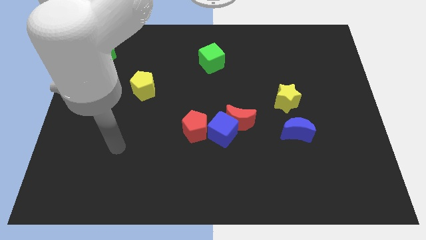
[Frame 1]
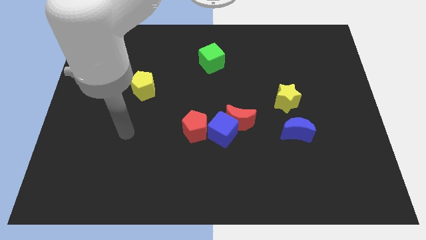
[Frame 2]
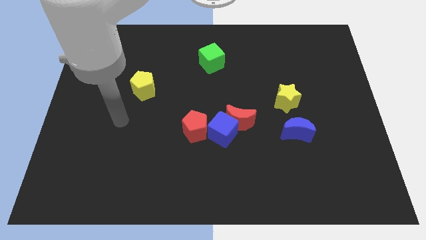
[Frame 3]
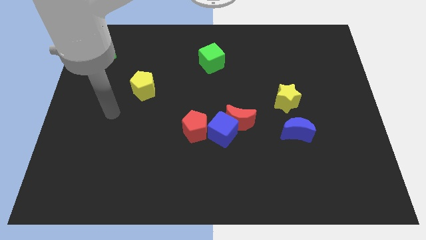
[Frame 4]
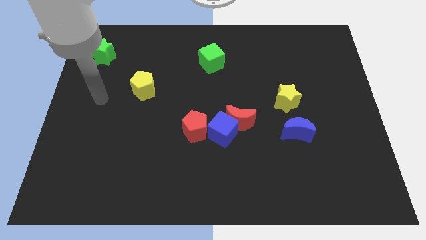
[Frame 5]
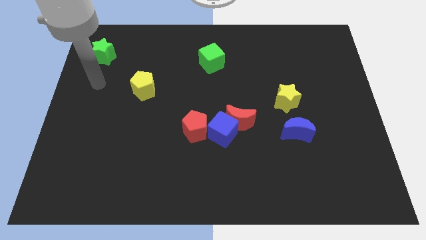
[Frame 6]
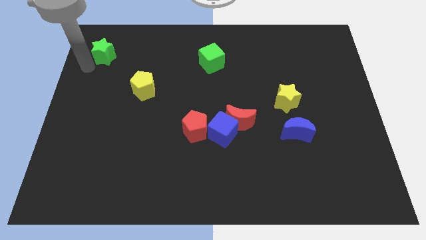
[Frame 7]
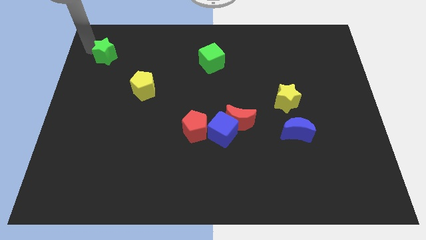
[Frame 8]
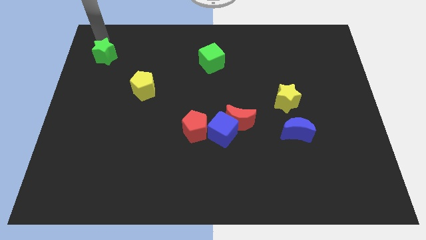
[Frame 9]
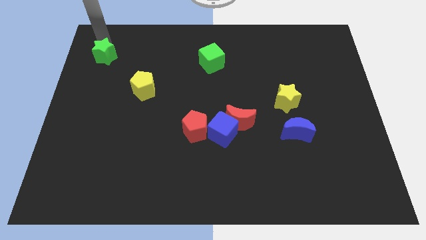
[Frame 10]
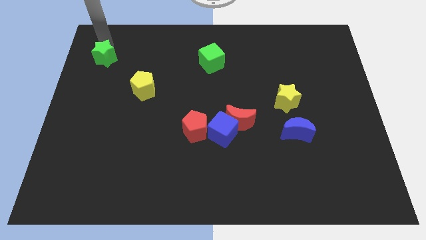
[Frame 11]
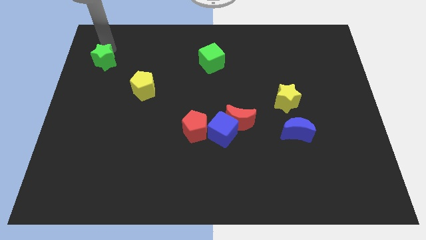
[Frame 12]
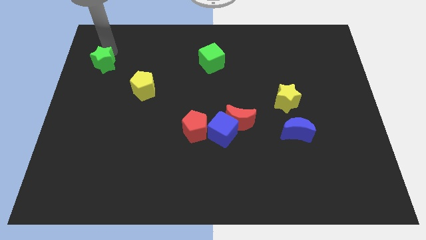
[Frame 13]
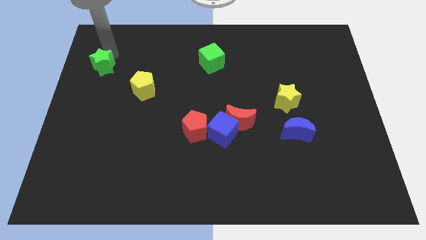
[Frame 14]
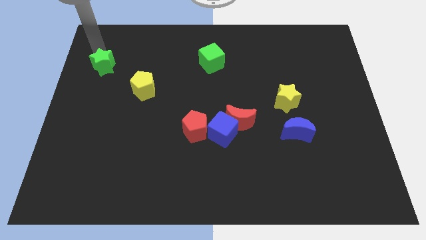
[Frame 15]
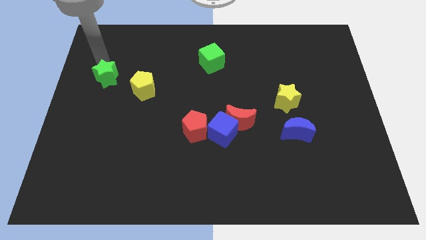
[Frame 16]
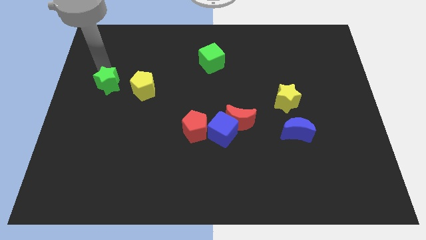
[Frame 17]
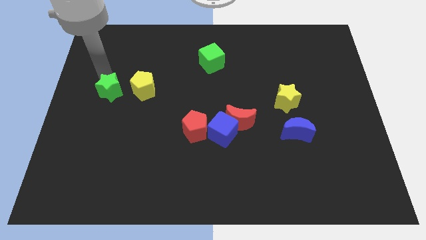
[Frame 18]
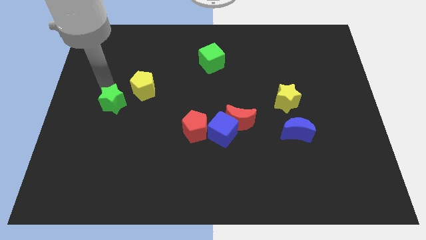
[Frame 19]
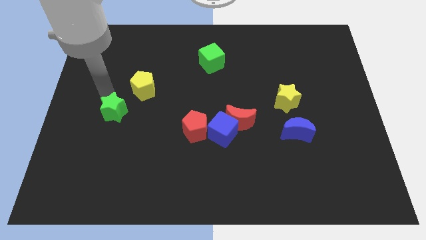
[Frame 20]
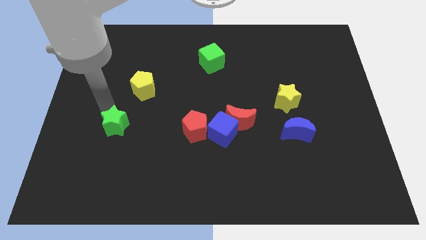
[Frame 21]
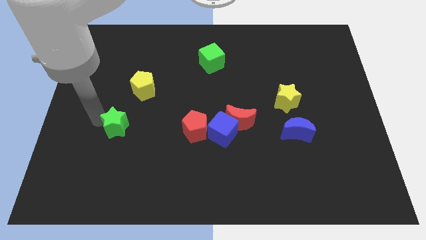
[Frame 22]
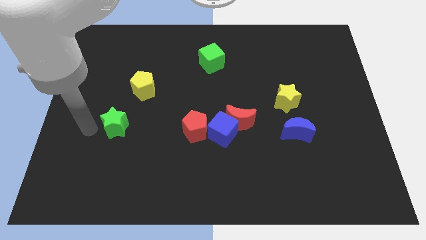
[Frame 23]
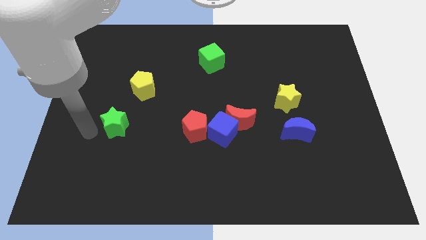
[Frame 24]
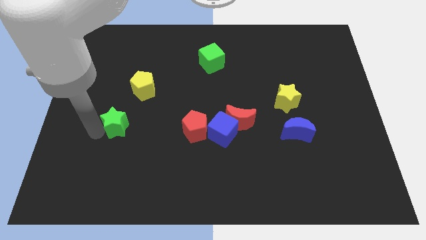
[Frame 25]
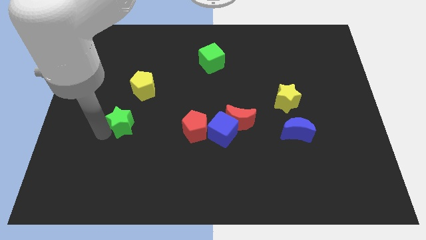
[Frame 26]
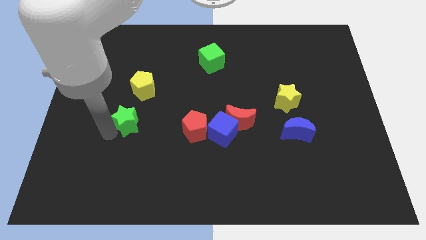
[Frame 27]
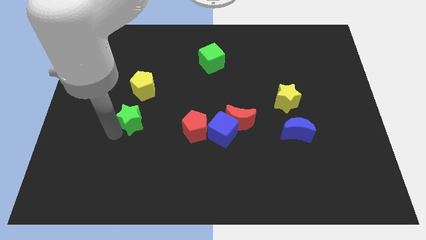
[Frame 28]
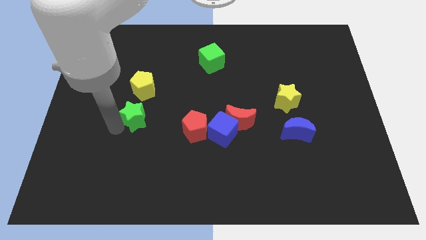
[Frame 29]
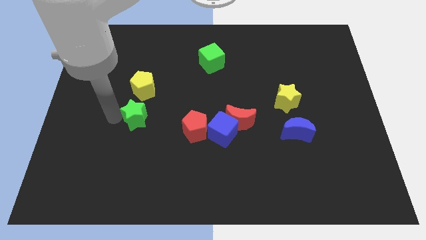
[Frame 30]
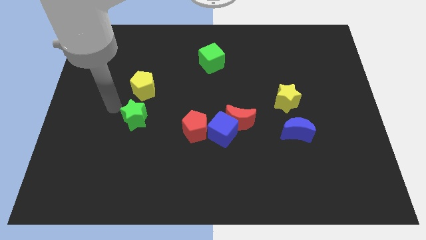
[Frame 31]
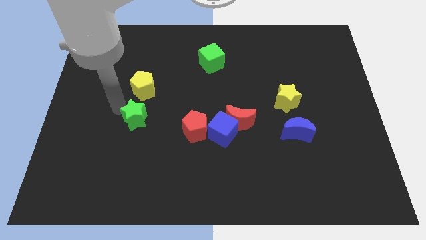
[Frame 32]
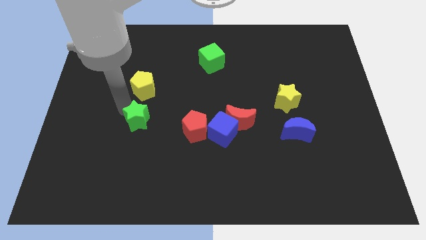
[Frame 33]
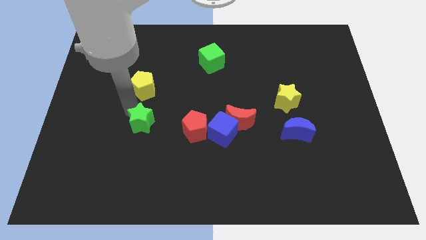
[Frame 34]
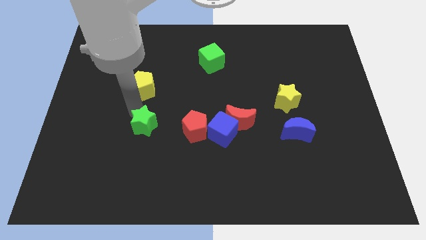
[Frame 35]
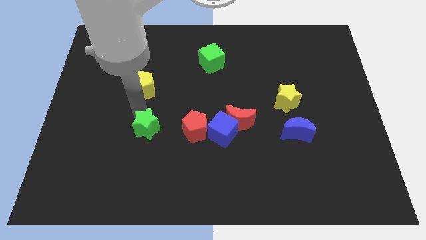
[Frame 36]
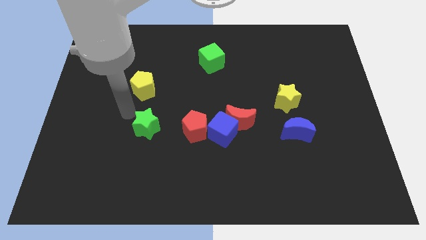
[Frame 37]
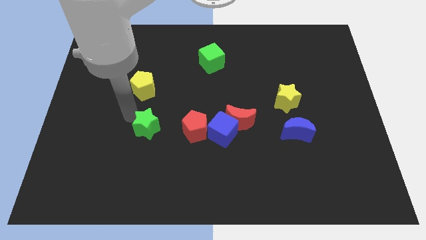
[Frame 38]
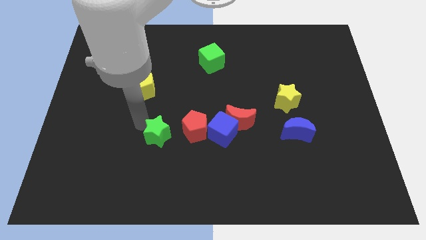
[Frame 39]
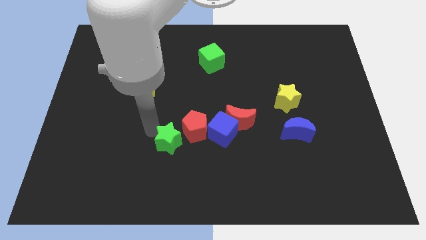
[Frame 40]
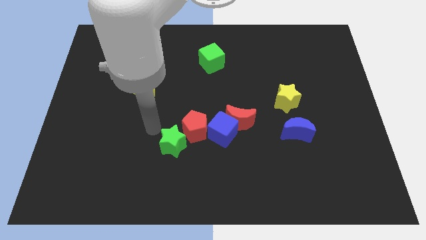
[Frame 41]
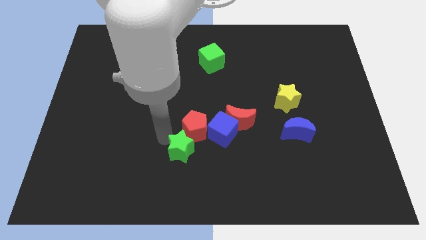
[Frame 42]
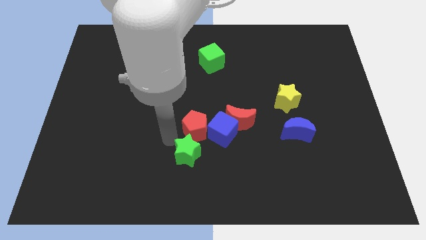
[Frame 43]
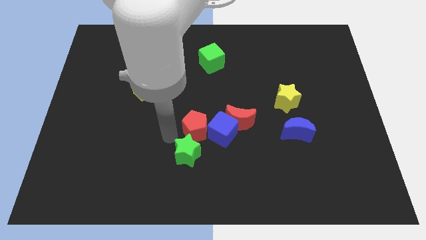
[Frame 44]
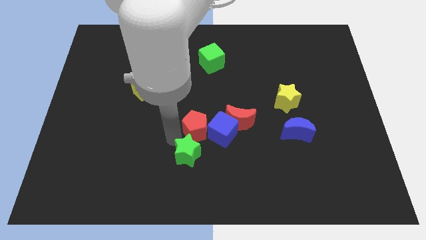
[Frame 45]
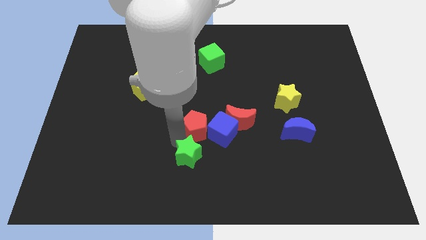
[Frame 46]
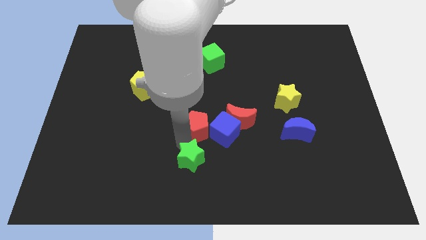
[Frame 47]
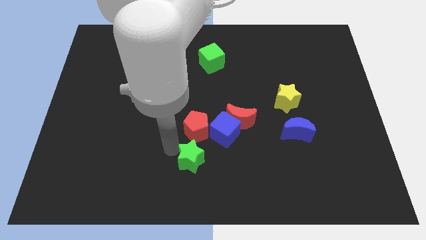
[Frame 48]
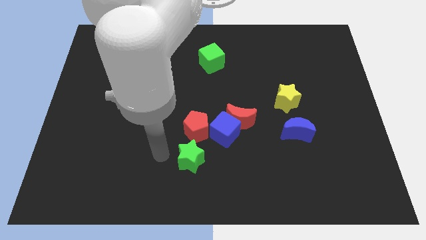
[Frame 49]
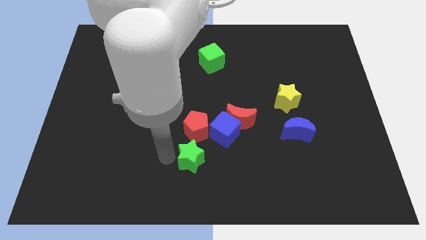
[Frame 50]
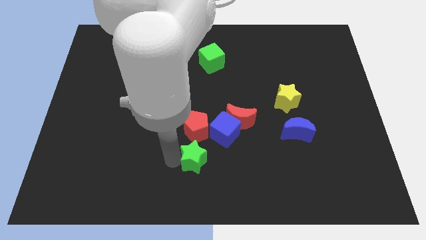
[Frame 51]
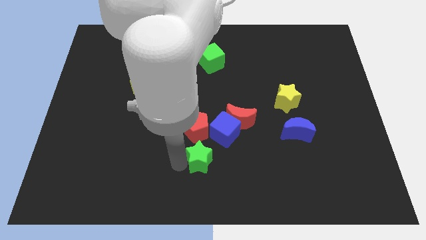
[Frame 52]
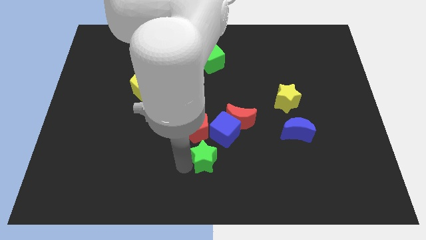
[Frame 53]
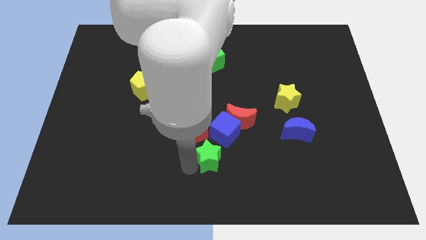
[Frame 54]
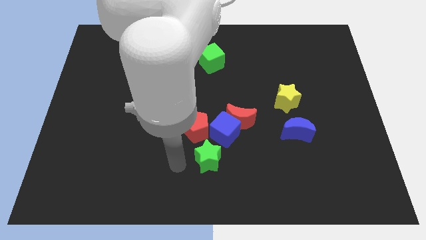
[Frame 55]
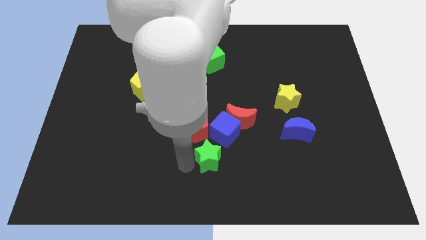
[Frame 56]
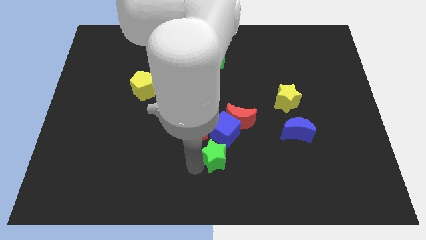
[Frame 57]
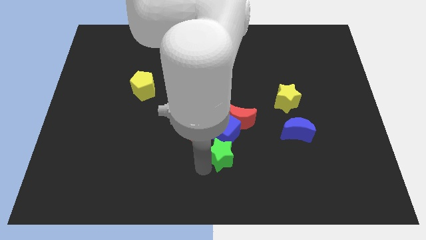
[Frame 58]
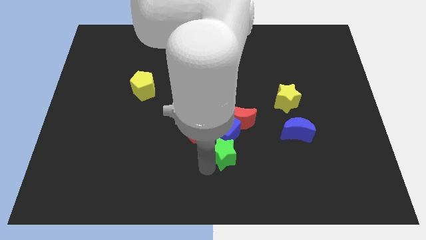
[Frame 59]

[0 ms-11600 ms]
push the green star to the bottom right of the blue cube

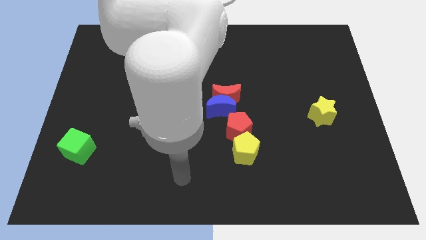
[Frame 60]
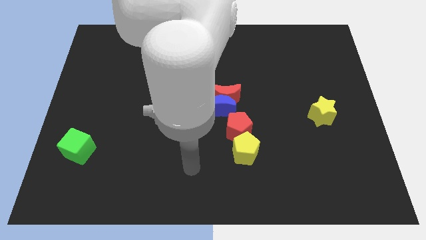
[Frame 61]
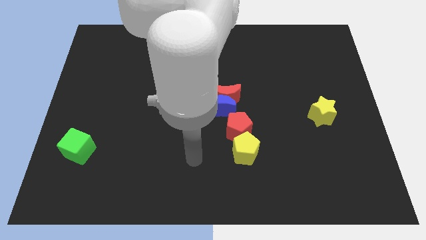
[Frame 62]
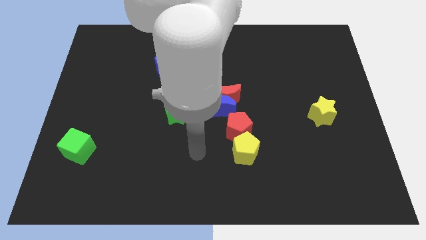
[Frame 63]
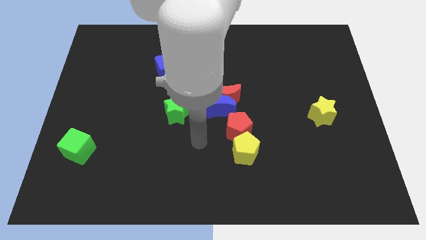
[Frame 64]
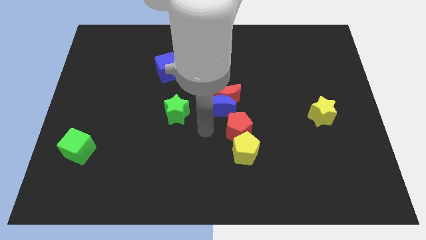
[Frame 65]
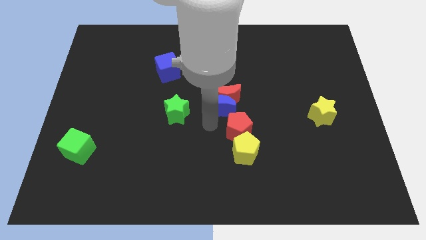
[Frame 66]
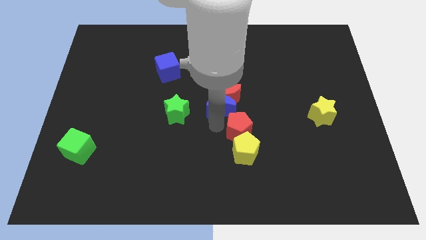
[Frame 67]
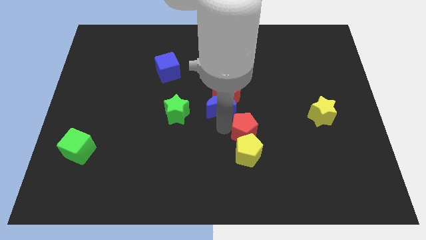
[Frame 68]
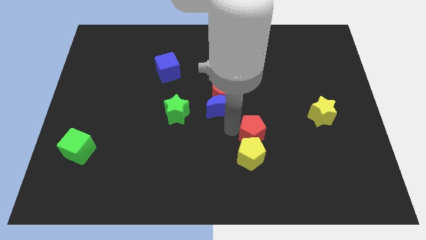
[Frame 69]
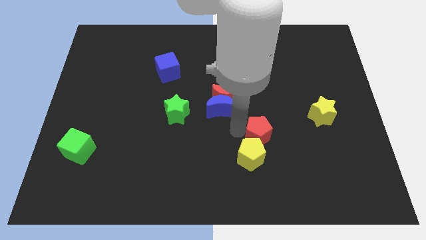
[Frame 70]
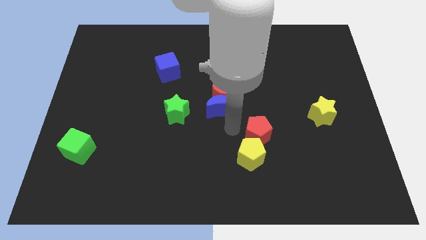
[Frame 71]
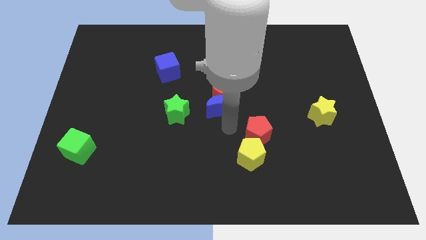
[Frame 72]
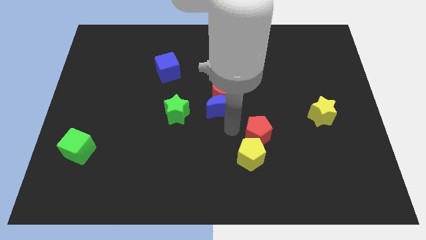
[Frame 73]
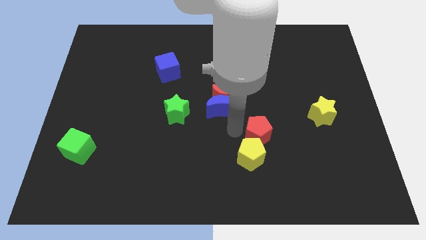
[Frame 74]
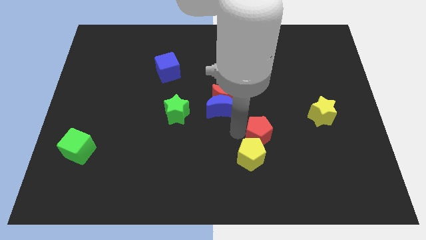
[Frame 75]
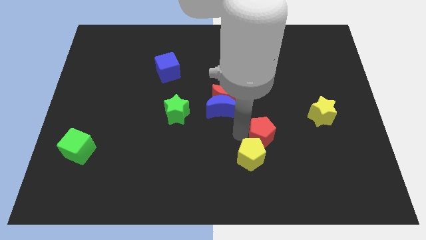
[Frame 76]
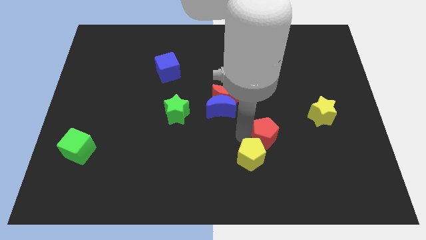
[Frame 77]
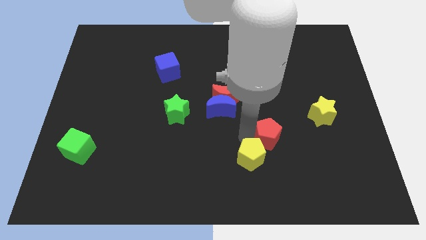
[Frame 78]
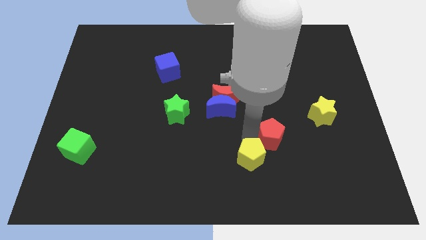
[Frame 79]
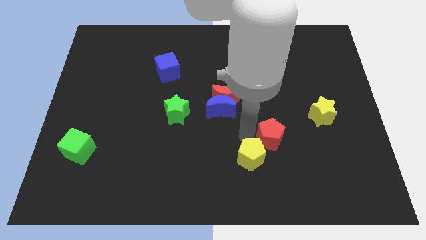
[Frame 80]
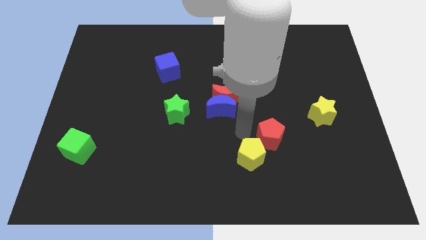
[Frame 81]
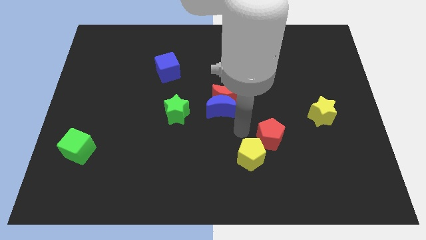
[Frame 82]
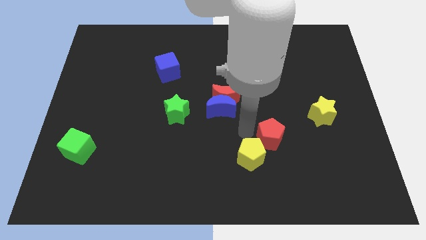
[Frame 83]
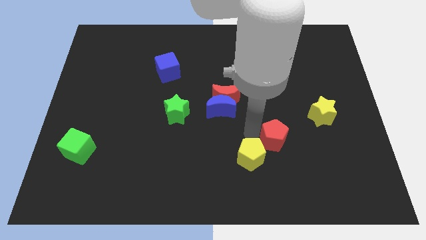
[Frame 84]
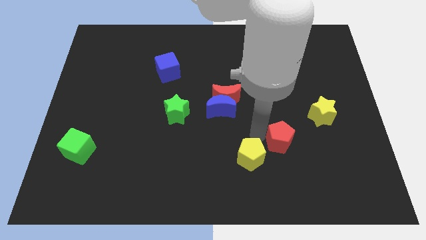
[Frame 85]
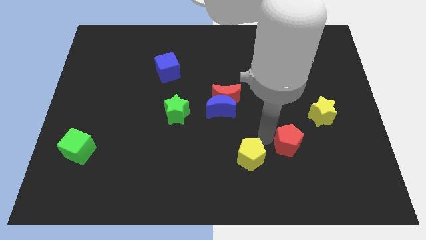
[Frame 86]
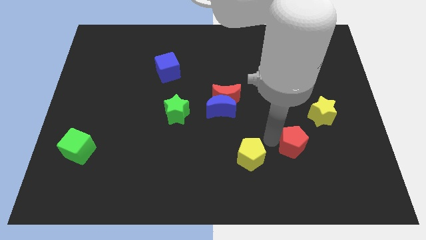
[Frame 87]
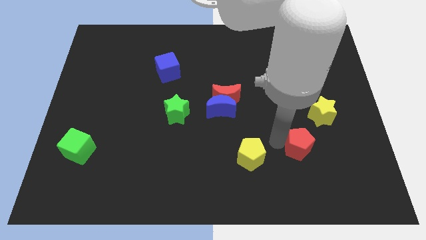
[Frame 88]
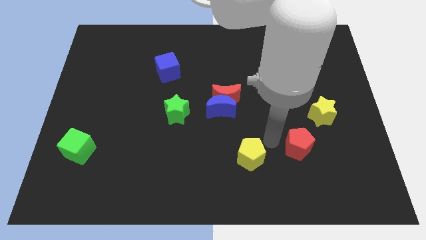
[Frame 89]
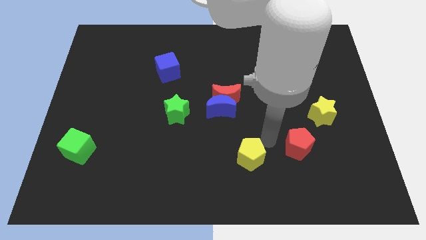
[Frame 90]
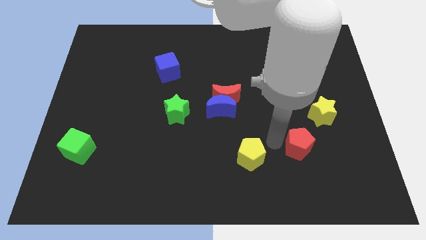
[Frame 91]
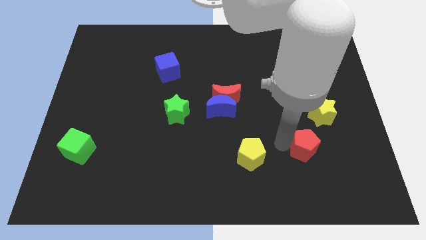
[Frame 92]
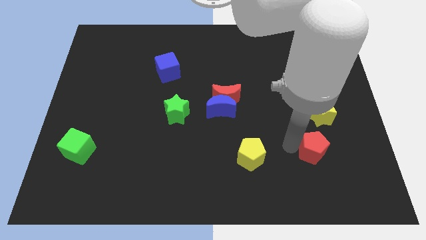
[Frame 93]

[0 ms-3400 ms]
push the red pentagon below the yellow star
